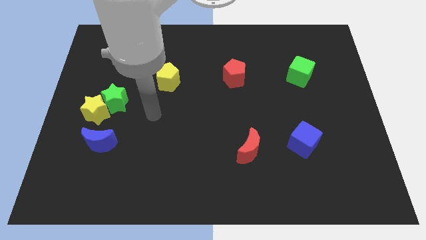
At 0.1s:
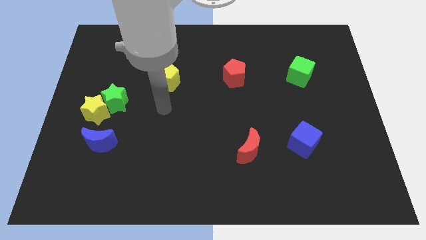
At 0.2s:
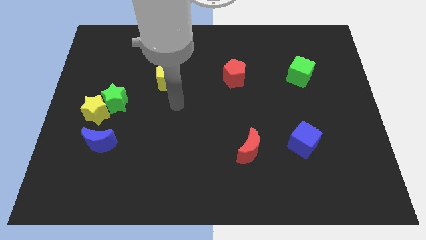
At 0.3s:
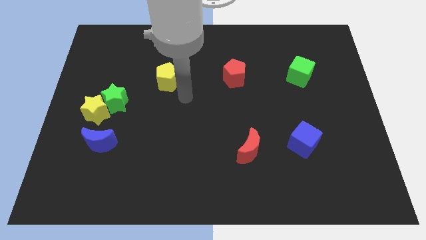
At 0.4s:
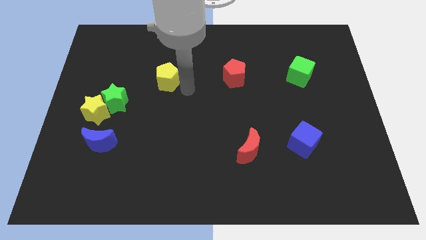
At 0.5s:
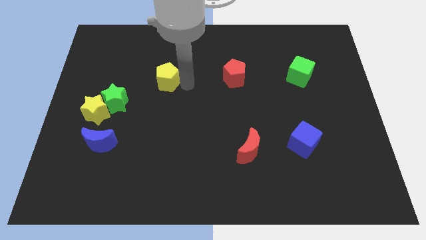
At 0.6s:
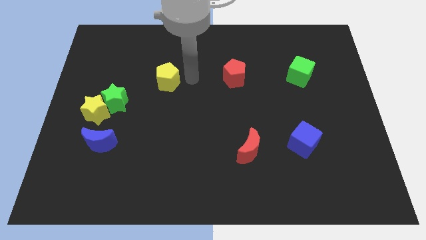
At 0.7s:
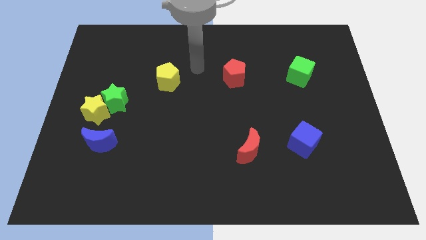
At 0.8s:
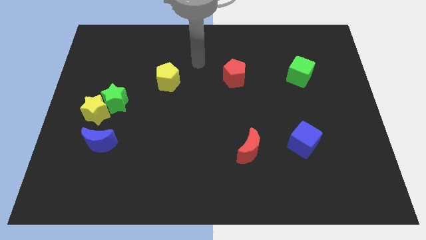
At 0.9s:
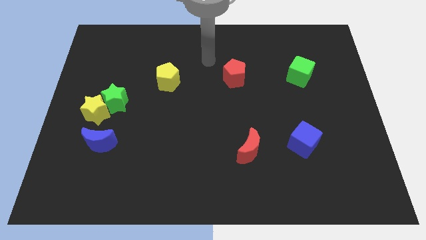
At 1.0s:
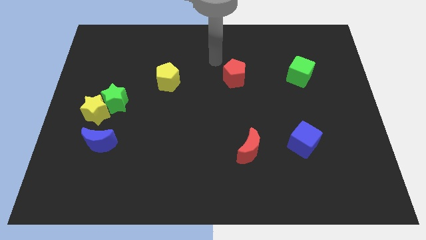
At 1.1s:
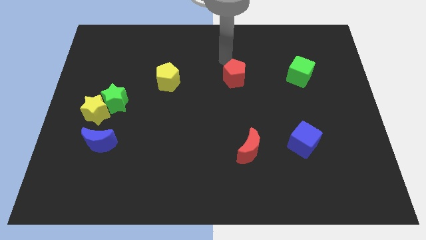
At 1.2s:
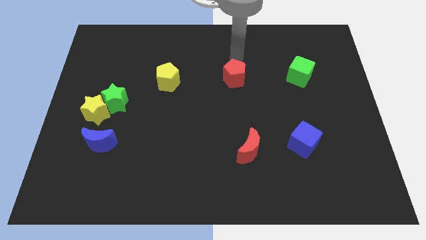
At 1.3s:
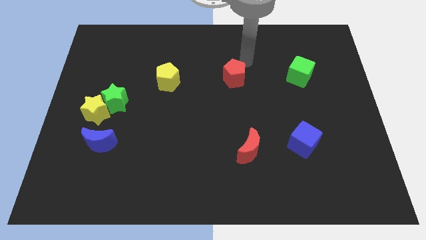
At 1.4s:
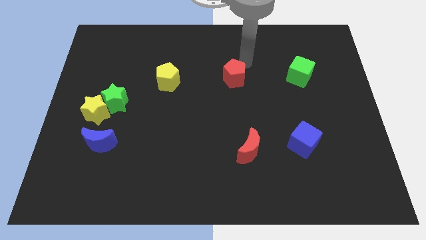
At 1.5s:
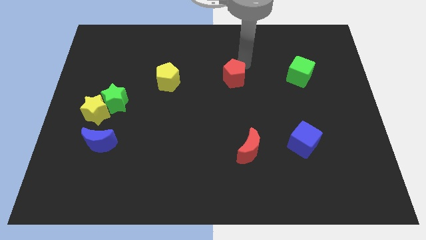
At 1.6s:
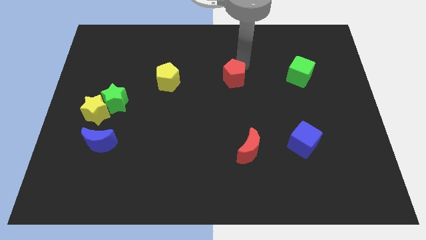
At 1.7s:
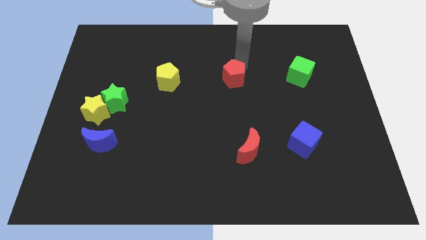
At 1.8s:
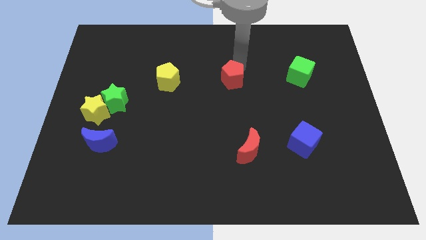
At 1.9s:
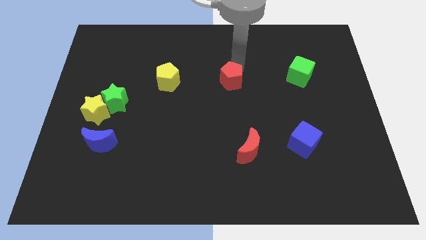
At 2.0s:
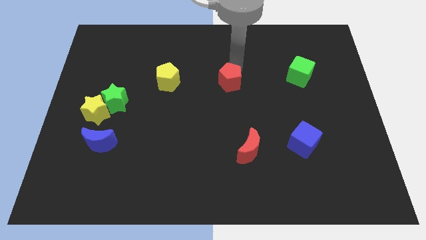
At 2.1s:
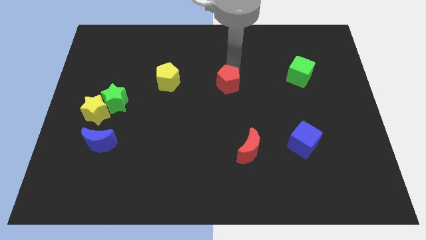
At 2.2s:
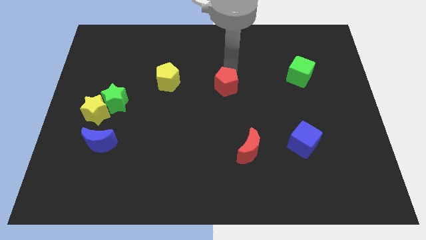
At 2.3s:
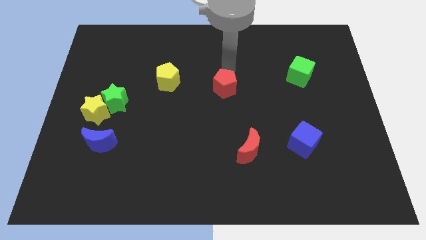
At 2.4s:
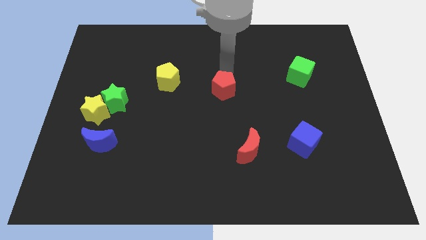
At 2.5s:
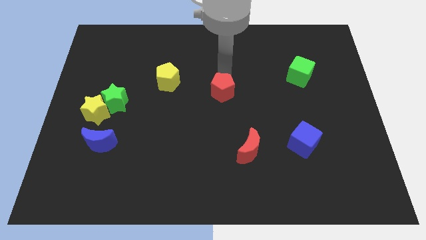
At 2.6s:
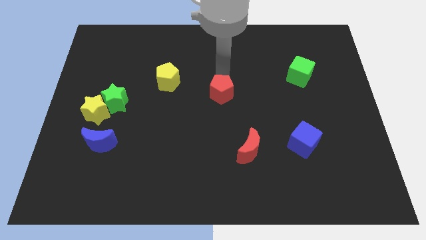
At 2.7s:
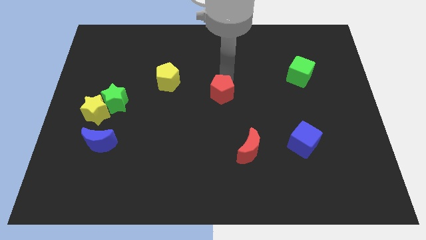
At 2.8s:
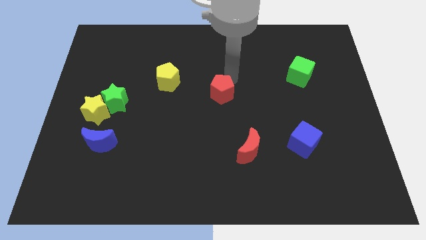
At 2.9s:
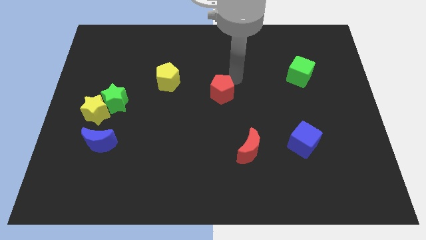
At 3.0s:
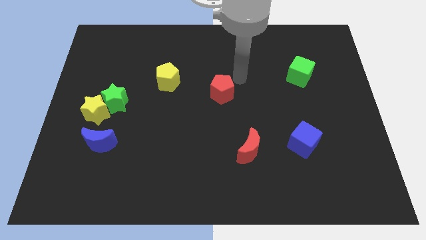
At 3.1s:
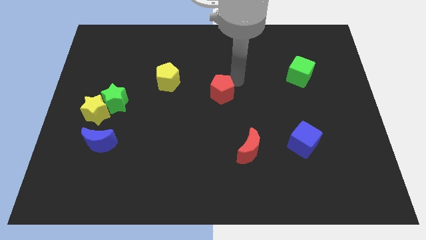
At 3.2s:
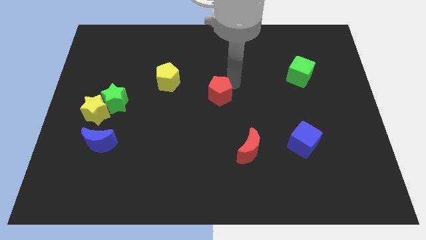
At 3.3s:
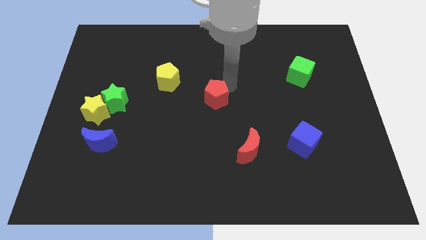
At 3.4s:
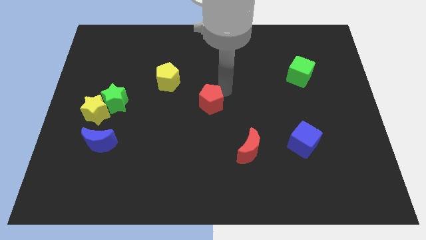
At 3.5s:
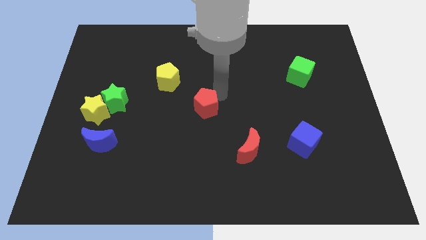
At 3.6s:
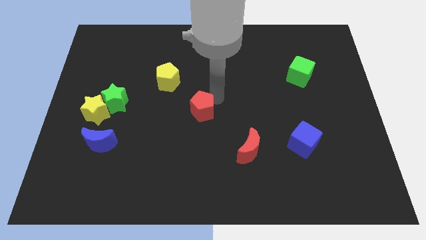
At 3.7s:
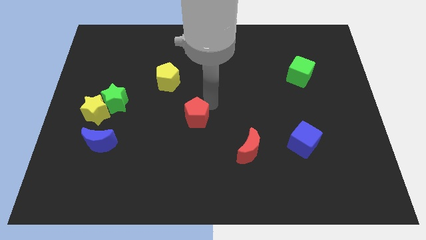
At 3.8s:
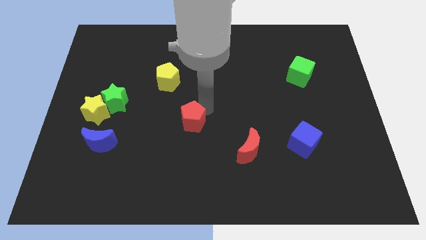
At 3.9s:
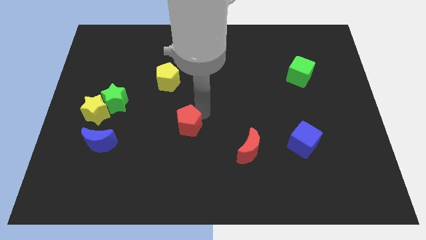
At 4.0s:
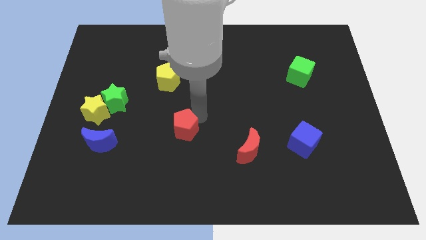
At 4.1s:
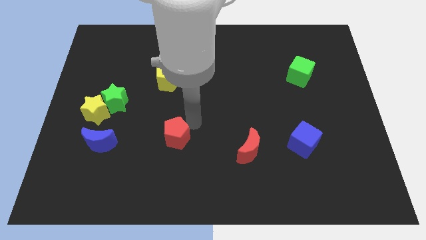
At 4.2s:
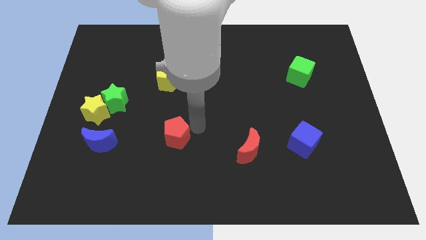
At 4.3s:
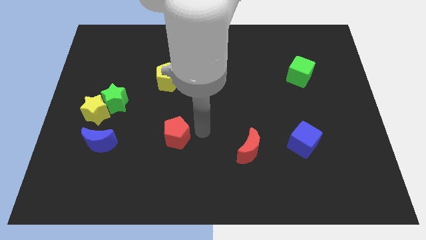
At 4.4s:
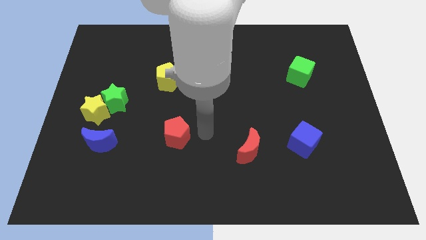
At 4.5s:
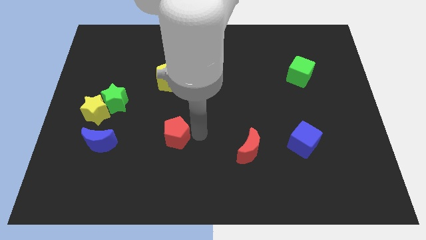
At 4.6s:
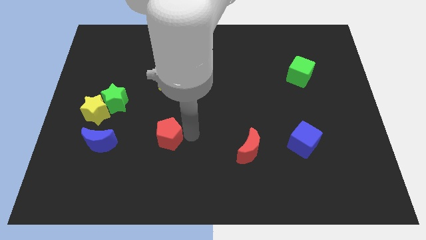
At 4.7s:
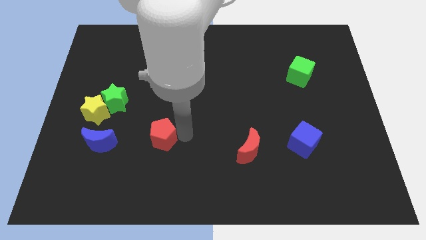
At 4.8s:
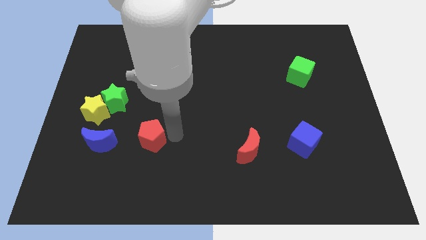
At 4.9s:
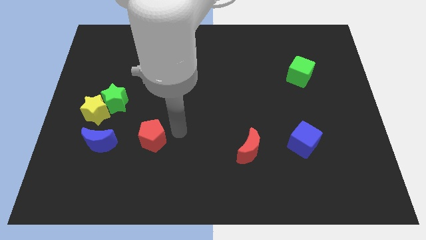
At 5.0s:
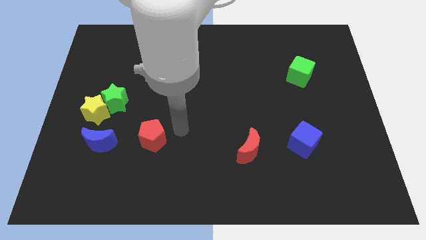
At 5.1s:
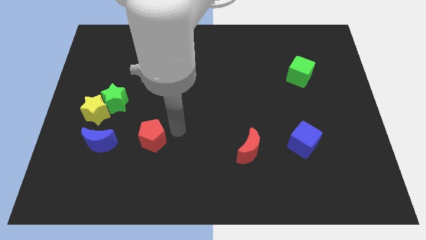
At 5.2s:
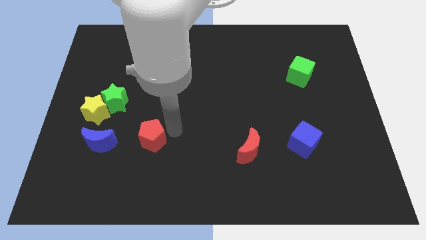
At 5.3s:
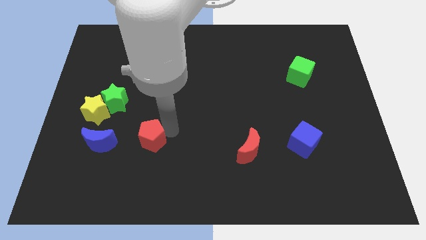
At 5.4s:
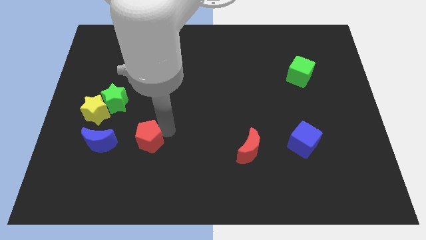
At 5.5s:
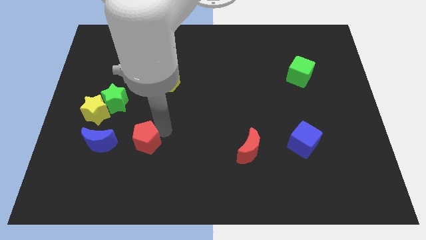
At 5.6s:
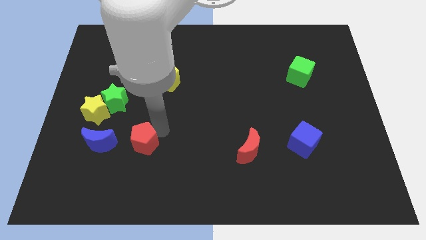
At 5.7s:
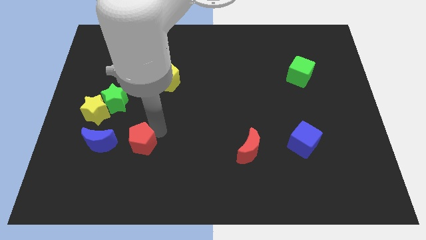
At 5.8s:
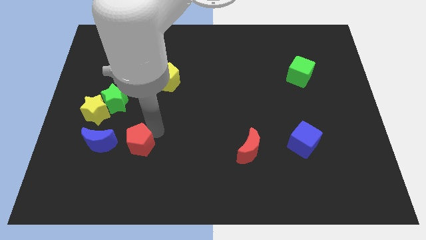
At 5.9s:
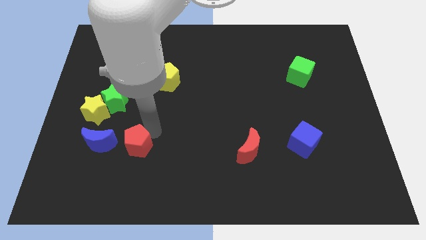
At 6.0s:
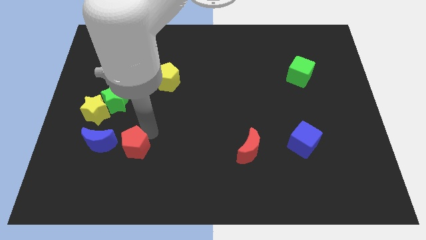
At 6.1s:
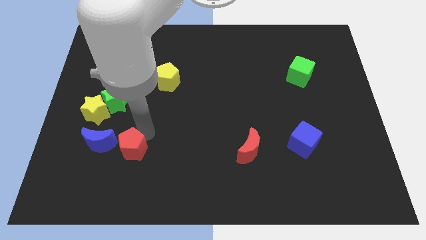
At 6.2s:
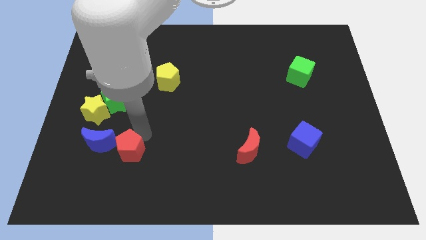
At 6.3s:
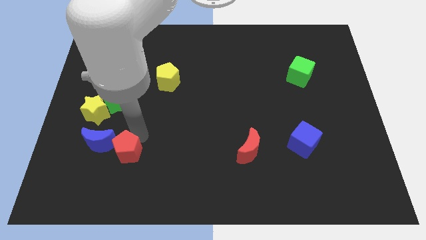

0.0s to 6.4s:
push the red pentagon to the bottom of the green star

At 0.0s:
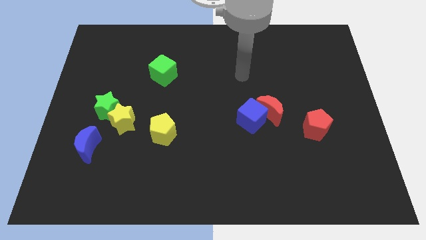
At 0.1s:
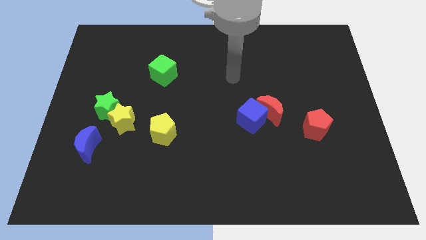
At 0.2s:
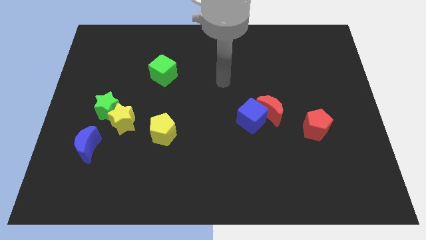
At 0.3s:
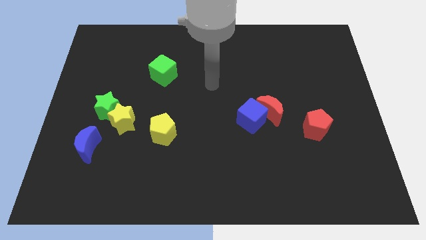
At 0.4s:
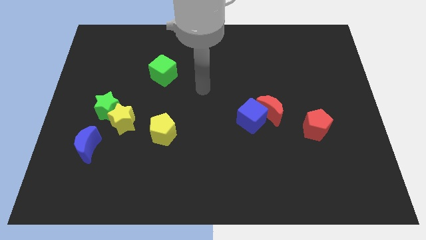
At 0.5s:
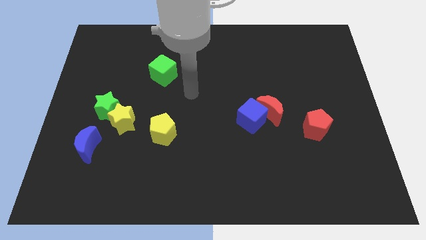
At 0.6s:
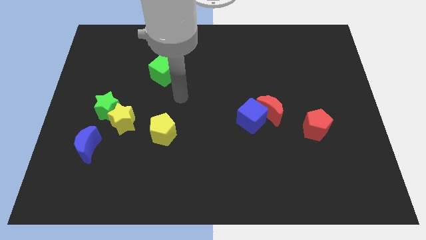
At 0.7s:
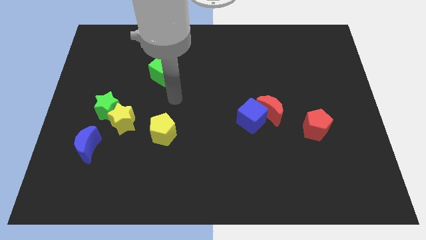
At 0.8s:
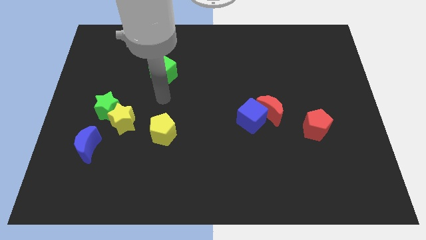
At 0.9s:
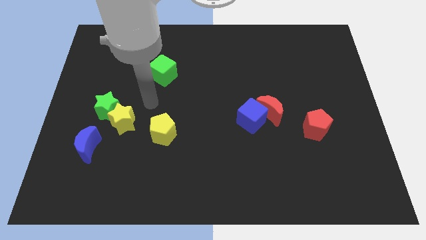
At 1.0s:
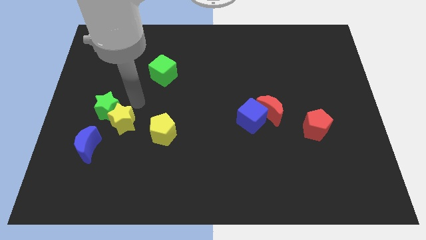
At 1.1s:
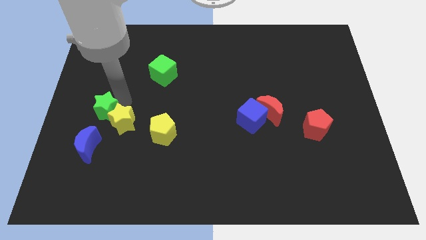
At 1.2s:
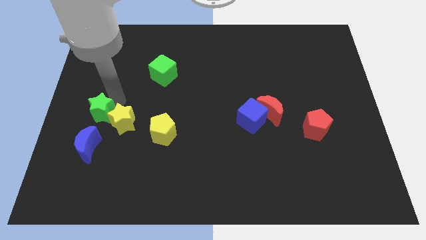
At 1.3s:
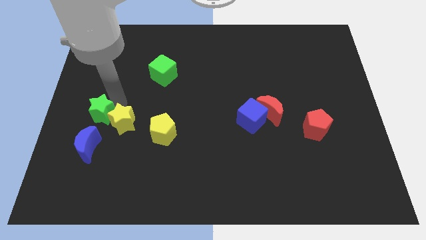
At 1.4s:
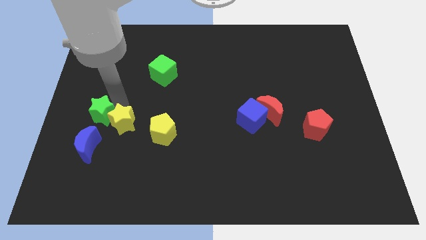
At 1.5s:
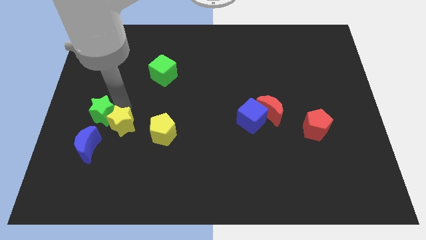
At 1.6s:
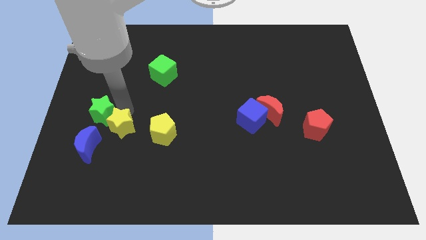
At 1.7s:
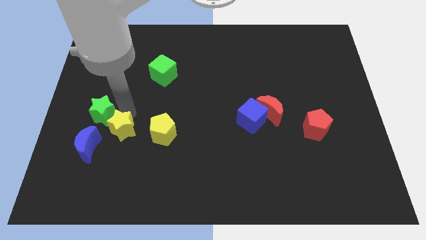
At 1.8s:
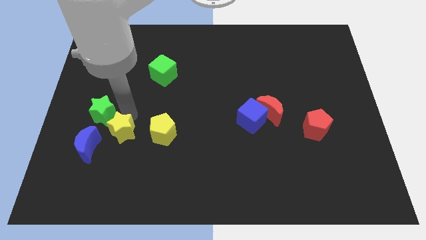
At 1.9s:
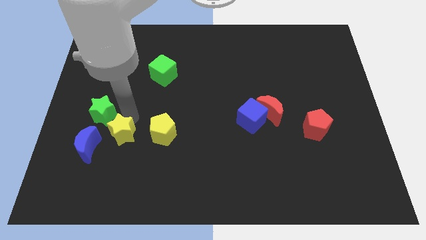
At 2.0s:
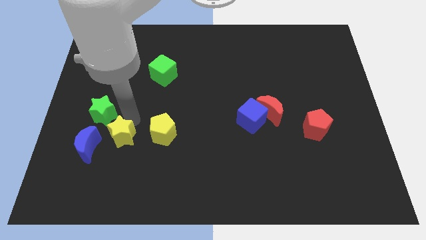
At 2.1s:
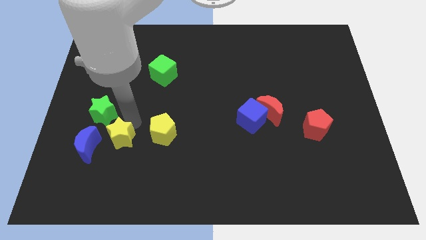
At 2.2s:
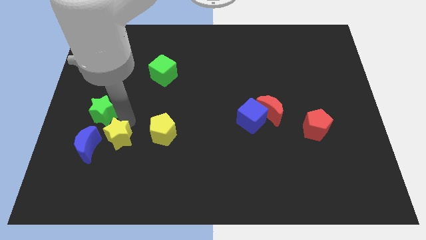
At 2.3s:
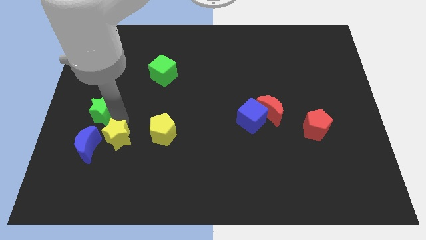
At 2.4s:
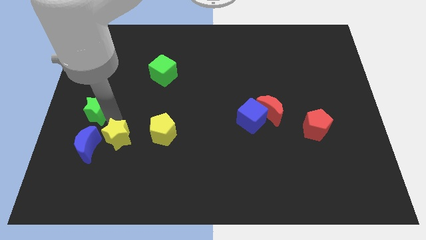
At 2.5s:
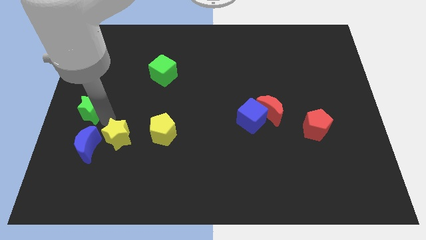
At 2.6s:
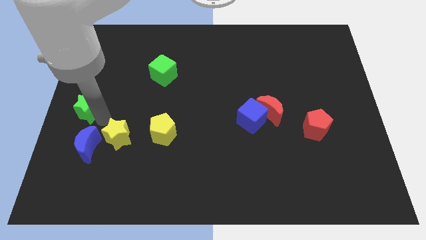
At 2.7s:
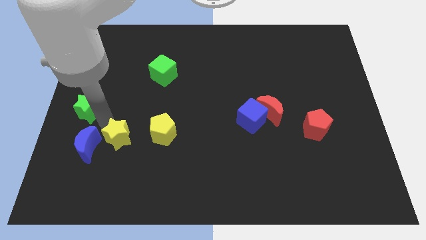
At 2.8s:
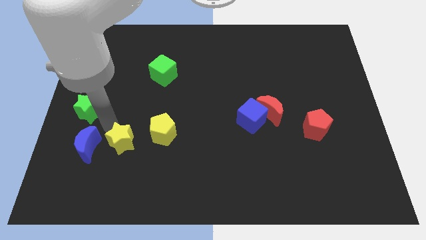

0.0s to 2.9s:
slide the yellow star diagonally down and to the left of the yellow pentagon
